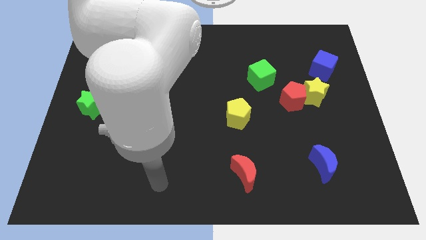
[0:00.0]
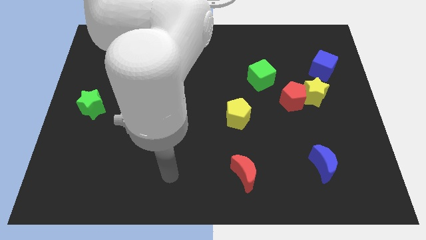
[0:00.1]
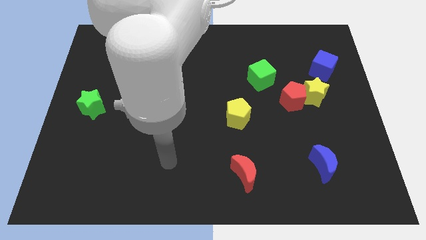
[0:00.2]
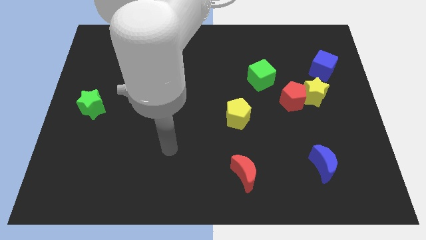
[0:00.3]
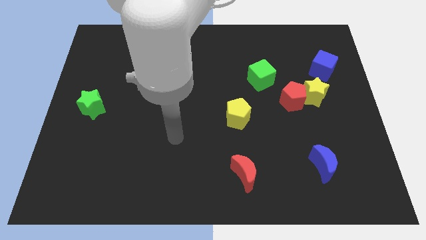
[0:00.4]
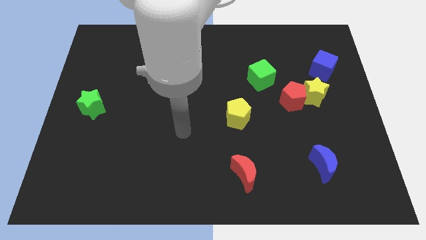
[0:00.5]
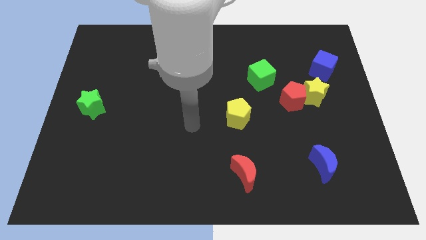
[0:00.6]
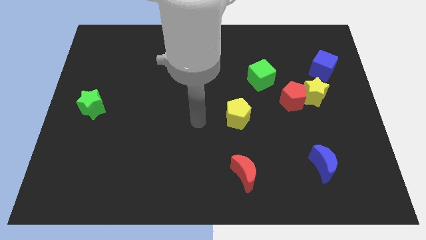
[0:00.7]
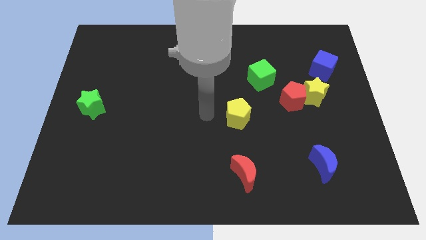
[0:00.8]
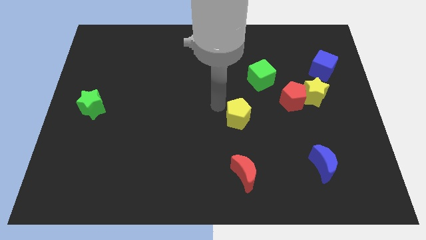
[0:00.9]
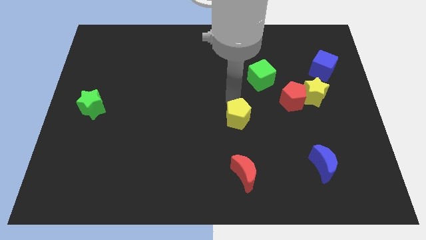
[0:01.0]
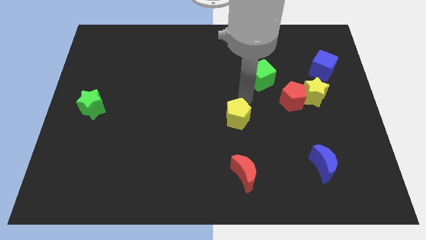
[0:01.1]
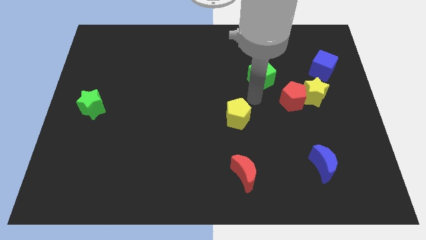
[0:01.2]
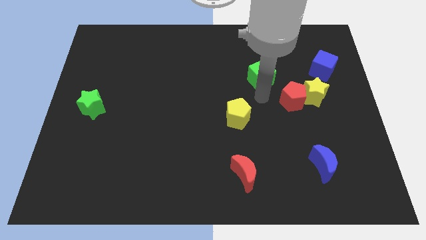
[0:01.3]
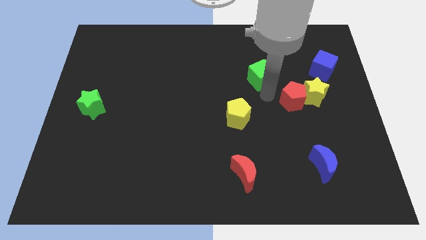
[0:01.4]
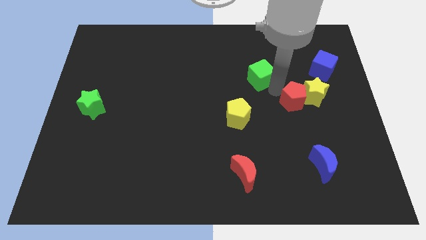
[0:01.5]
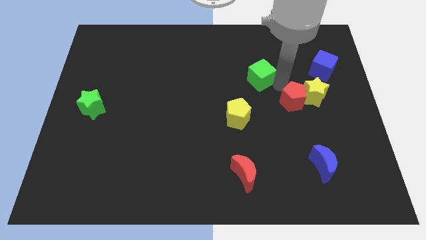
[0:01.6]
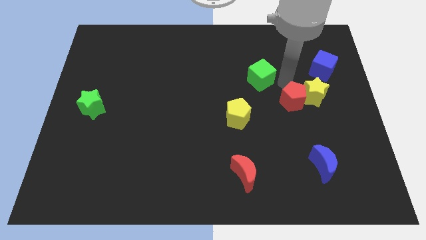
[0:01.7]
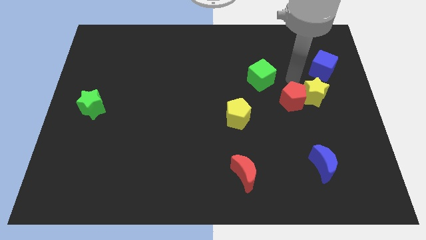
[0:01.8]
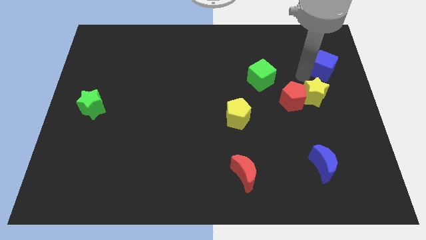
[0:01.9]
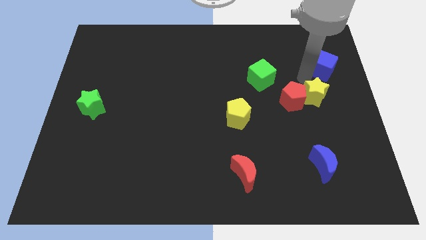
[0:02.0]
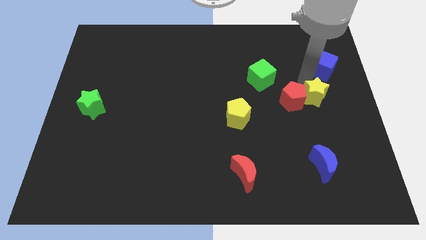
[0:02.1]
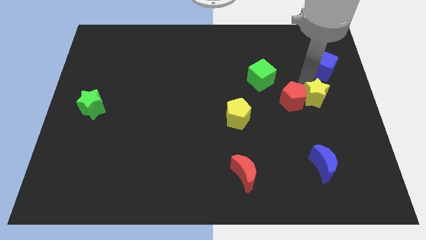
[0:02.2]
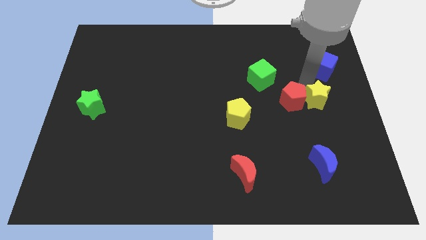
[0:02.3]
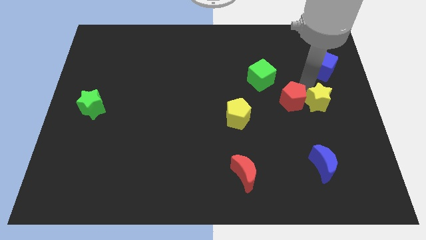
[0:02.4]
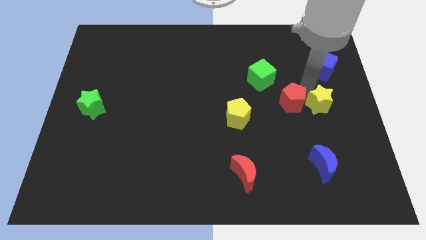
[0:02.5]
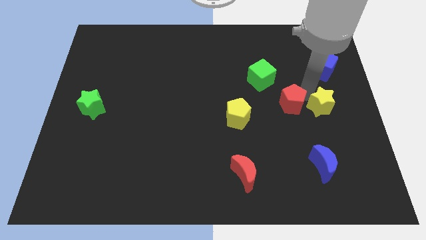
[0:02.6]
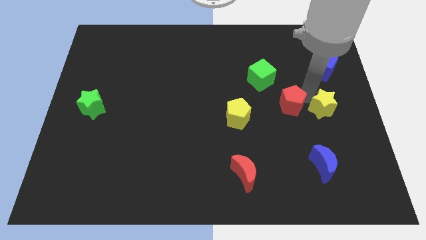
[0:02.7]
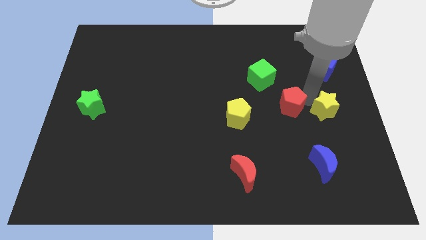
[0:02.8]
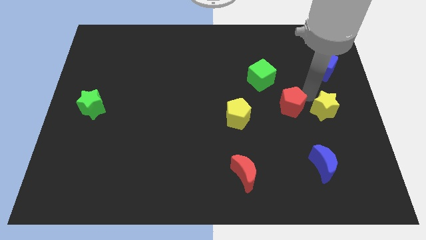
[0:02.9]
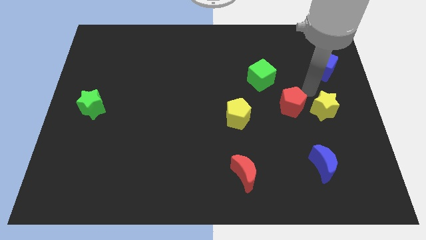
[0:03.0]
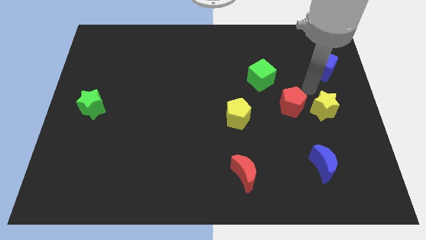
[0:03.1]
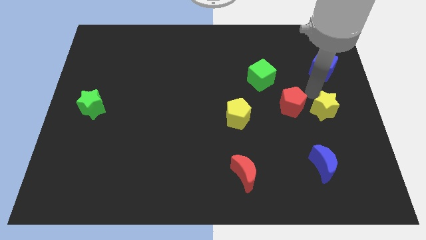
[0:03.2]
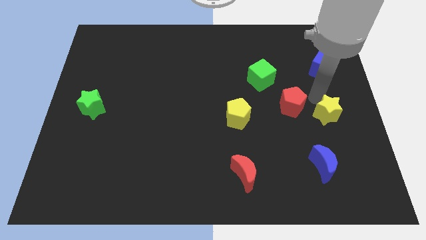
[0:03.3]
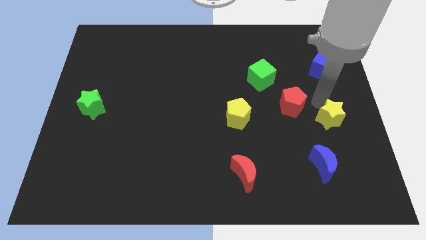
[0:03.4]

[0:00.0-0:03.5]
separate the yellow star from the red pentagon and blue cube

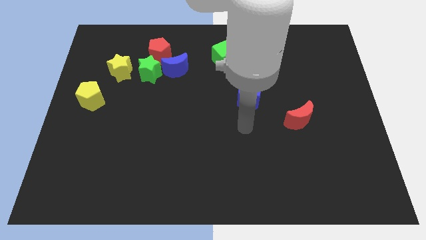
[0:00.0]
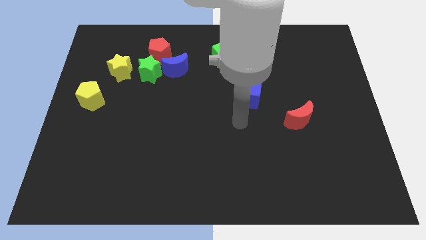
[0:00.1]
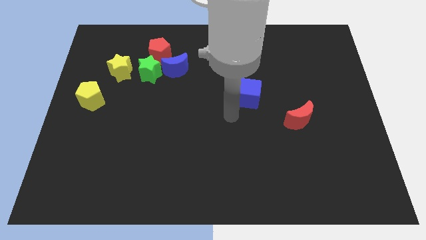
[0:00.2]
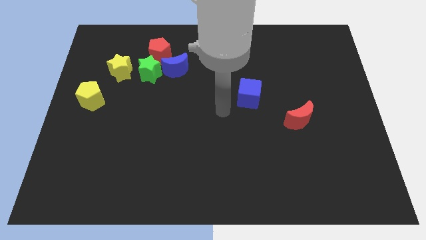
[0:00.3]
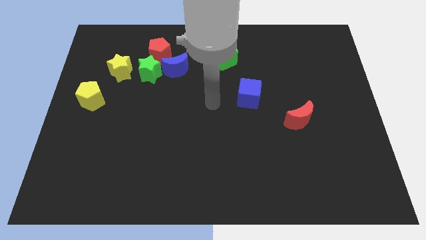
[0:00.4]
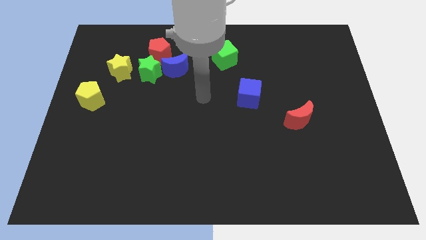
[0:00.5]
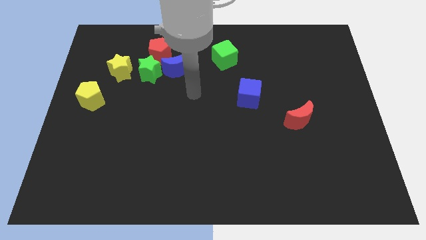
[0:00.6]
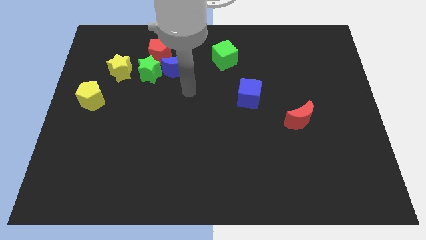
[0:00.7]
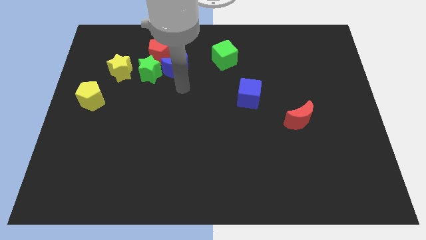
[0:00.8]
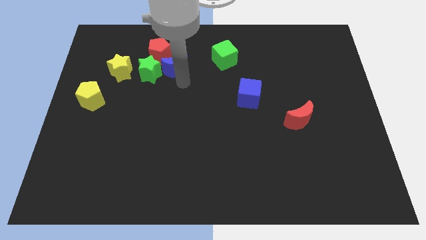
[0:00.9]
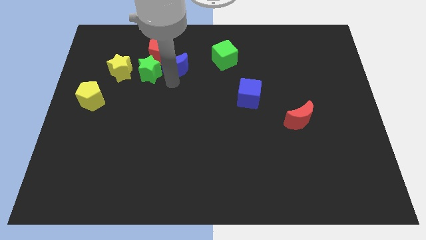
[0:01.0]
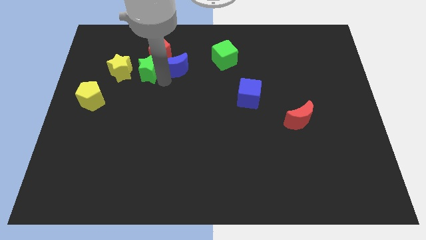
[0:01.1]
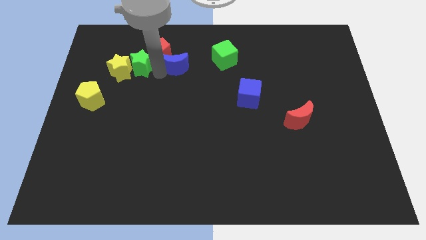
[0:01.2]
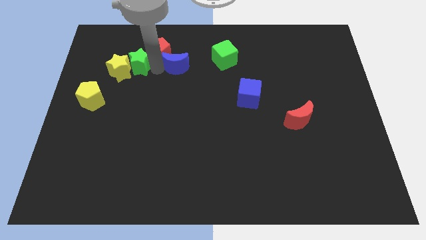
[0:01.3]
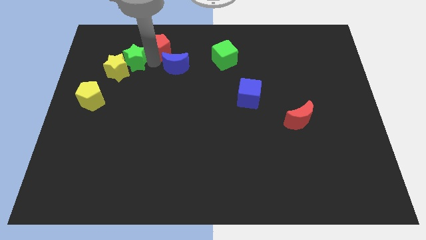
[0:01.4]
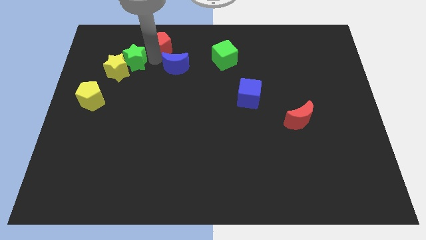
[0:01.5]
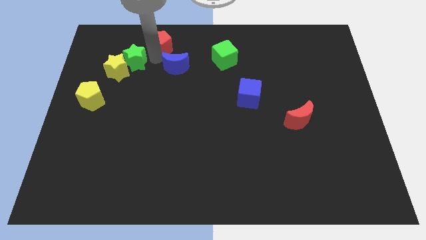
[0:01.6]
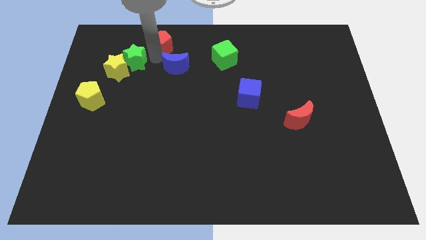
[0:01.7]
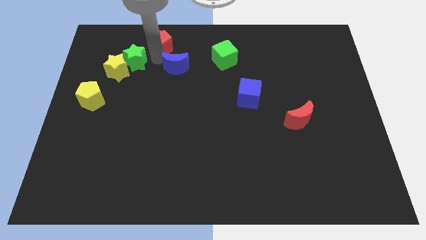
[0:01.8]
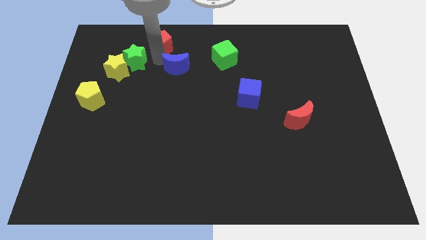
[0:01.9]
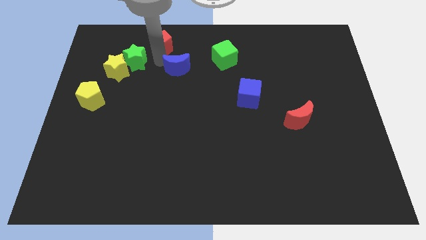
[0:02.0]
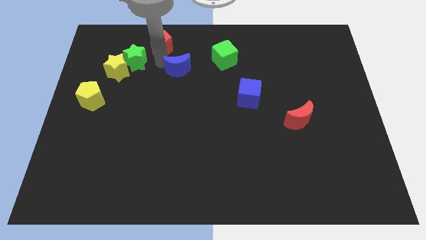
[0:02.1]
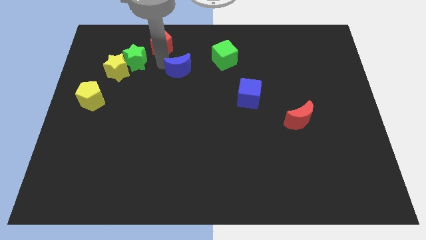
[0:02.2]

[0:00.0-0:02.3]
pull the blue moon apart from the green star and red pentagon

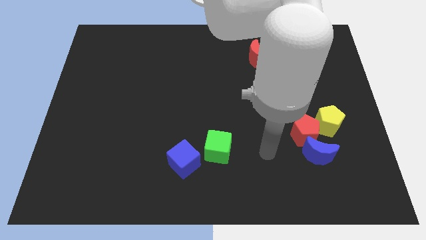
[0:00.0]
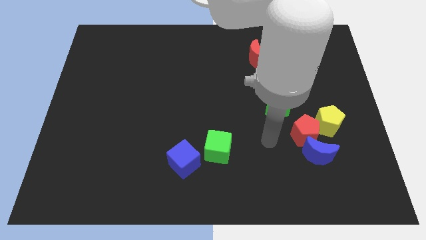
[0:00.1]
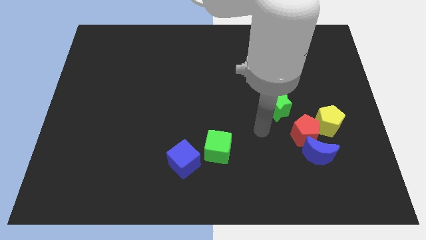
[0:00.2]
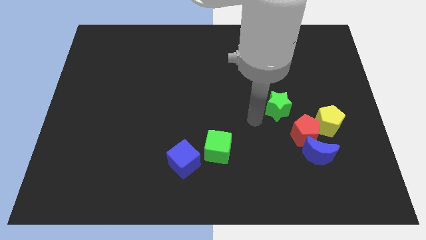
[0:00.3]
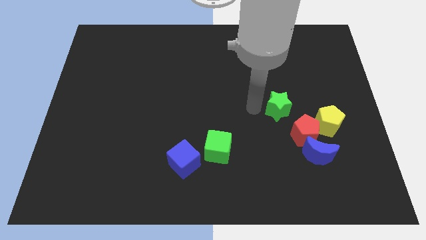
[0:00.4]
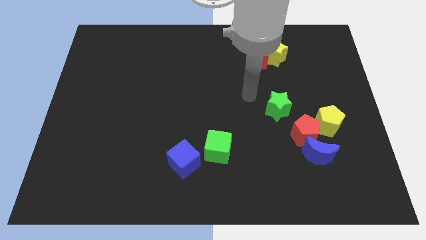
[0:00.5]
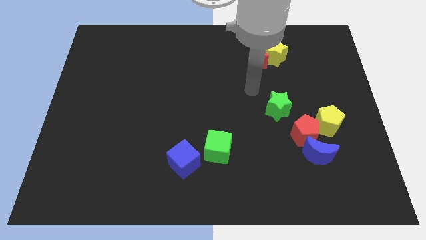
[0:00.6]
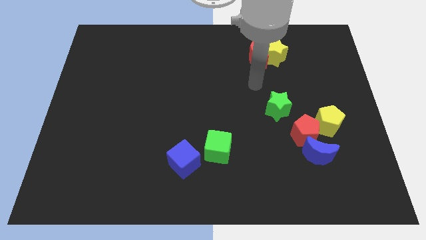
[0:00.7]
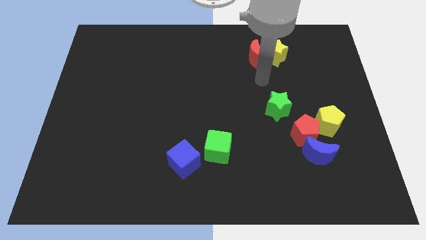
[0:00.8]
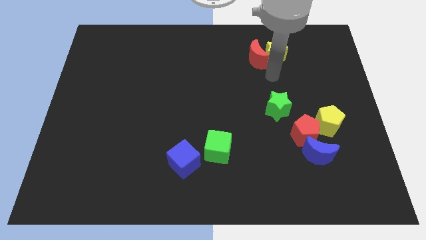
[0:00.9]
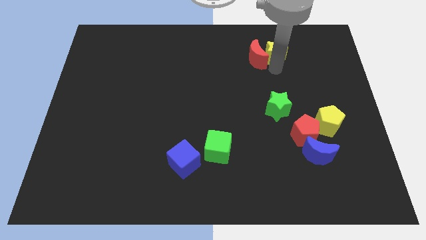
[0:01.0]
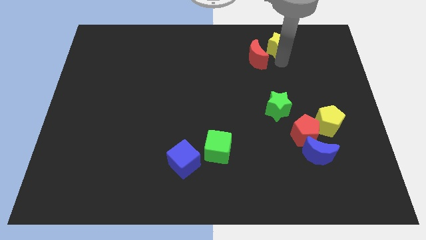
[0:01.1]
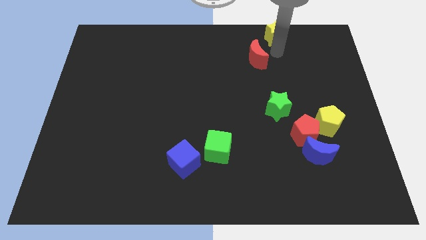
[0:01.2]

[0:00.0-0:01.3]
pull the red moon apart from the yellow star

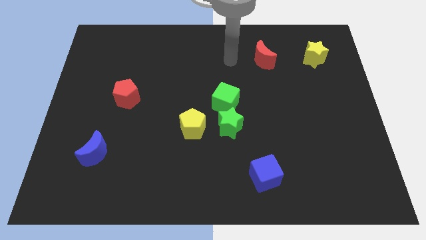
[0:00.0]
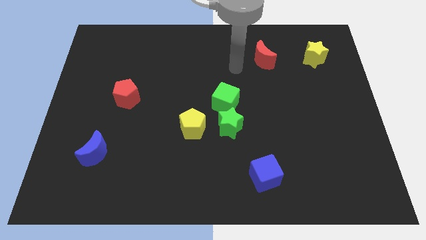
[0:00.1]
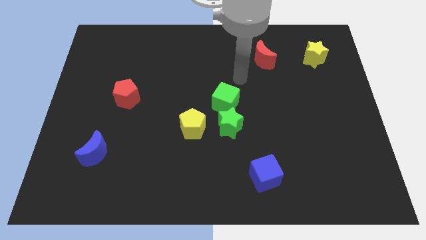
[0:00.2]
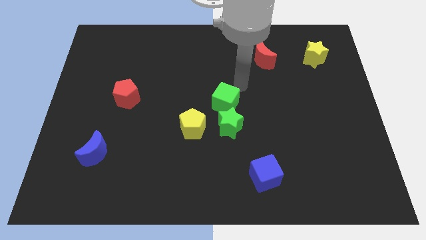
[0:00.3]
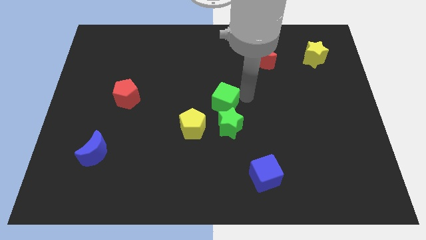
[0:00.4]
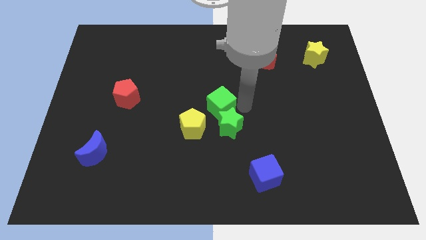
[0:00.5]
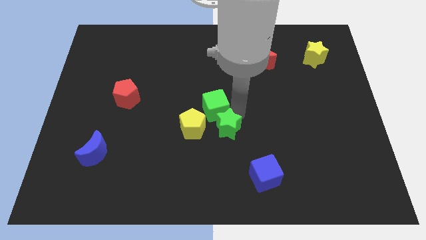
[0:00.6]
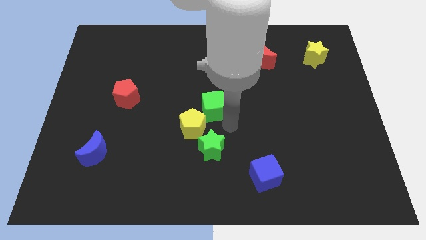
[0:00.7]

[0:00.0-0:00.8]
pull the green cube apart from the green star

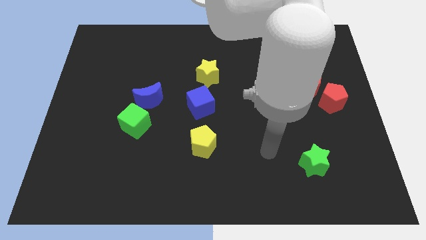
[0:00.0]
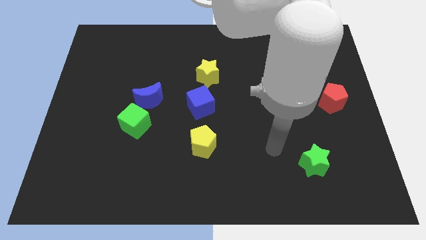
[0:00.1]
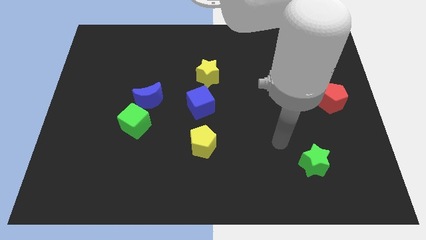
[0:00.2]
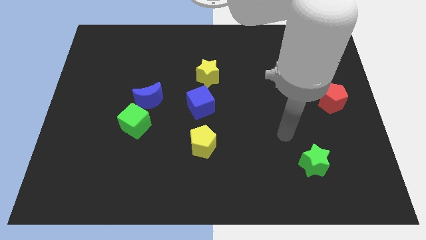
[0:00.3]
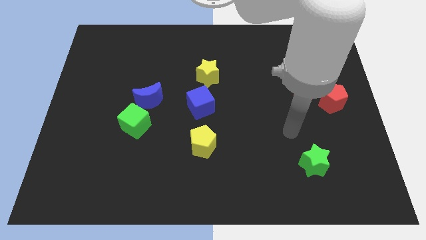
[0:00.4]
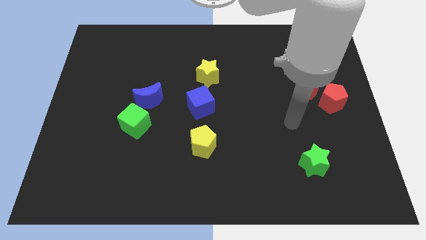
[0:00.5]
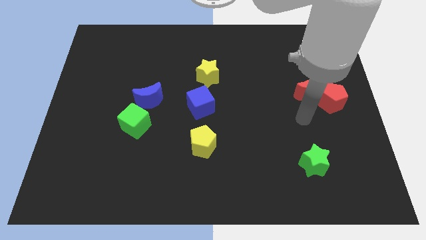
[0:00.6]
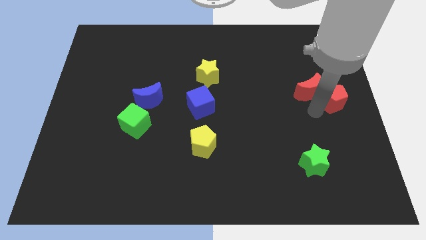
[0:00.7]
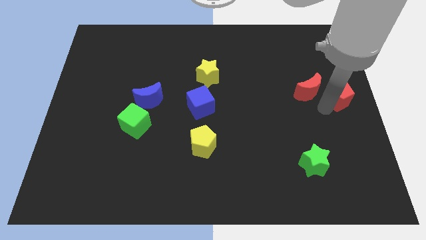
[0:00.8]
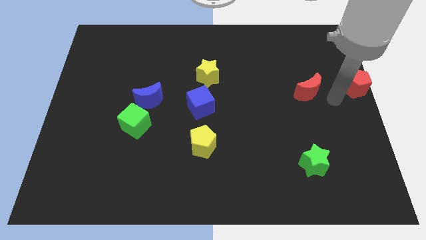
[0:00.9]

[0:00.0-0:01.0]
pull the red moon apart from the red pentagon

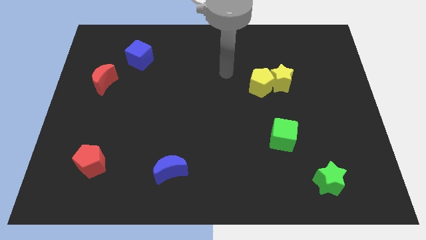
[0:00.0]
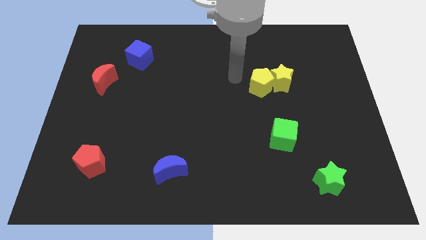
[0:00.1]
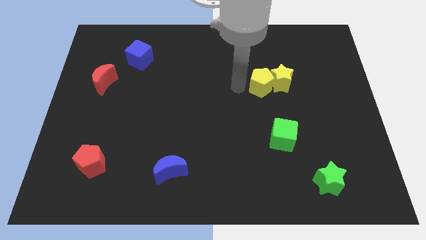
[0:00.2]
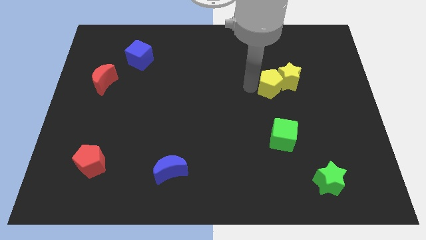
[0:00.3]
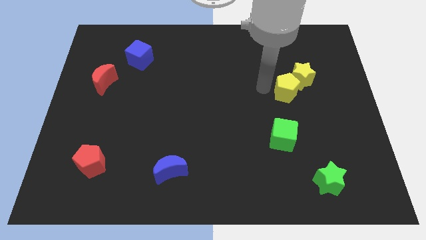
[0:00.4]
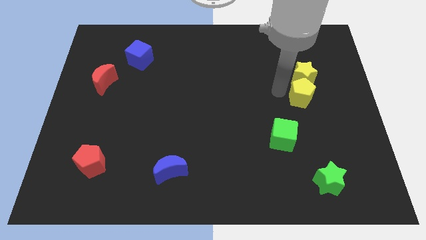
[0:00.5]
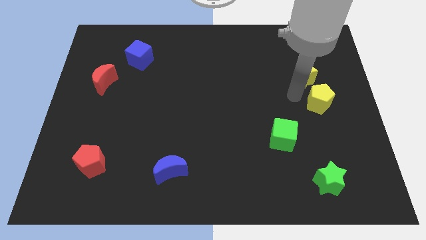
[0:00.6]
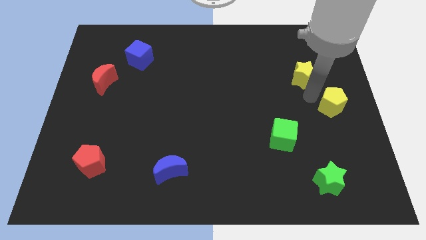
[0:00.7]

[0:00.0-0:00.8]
separate the yellow star from the yellow pentagon
